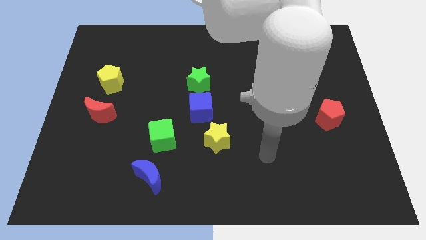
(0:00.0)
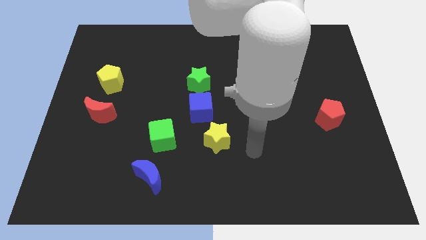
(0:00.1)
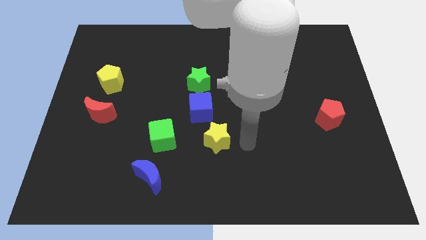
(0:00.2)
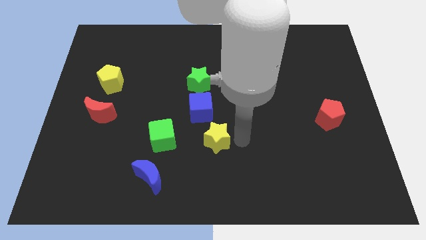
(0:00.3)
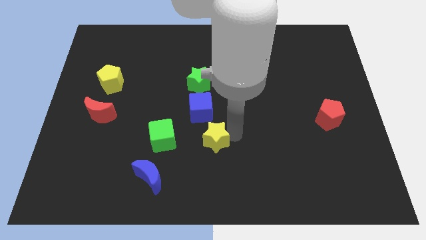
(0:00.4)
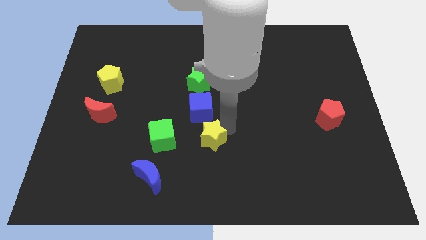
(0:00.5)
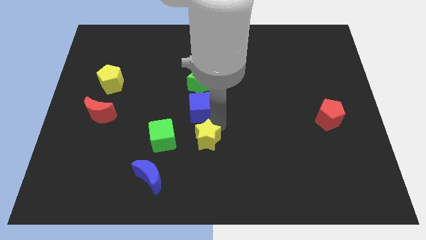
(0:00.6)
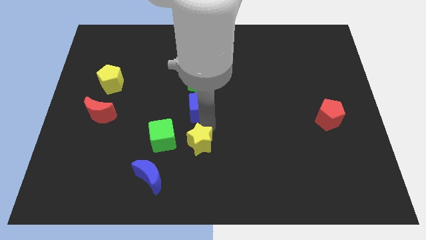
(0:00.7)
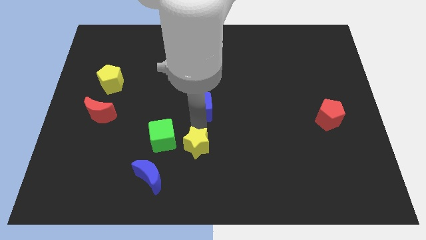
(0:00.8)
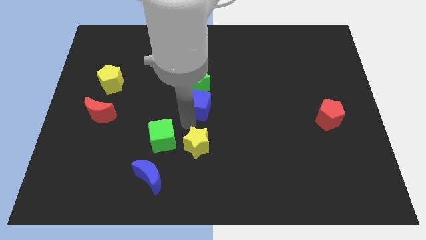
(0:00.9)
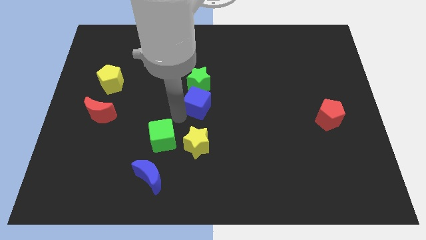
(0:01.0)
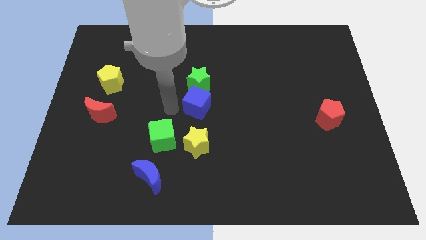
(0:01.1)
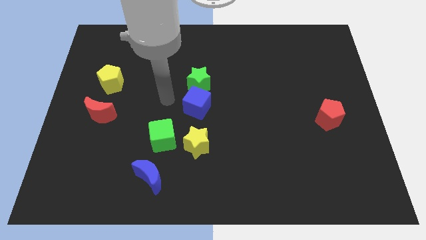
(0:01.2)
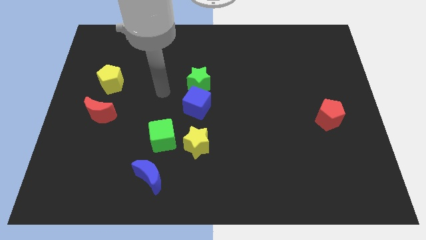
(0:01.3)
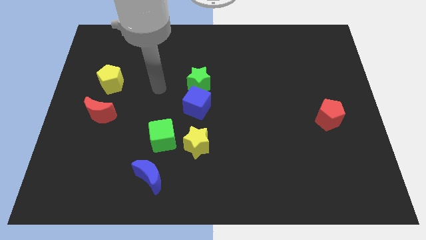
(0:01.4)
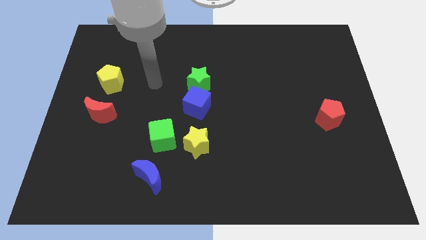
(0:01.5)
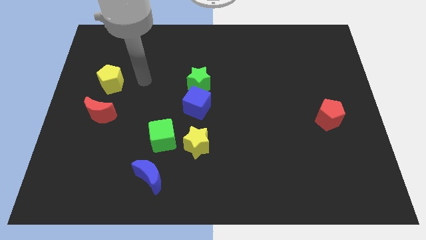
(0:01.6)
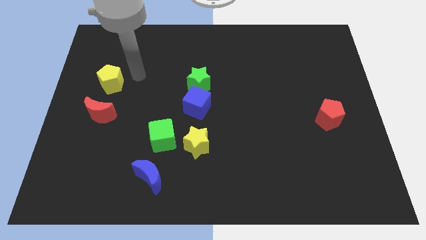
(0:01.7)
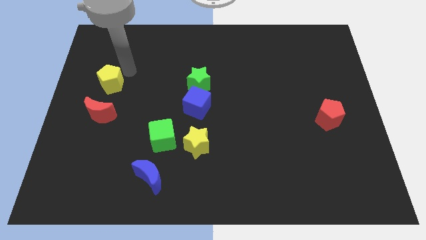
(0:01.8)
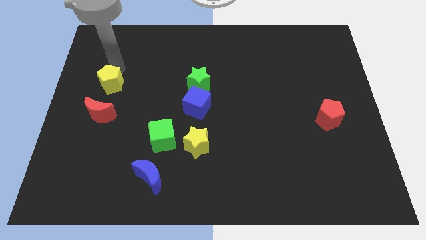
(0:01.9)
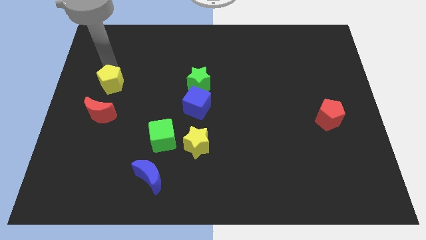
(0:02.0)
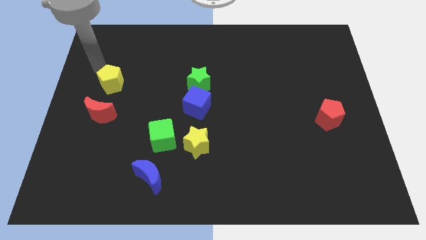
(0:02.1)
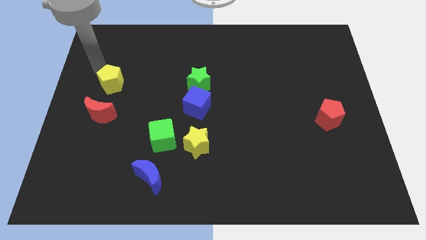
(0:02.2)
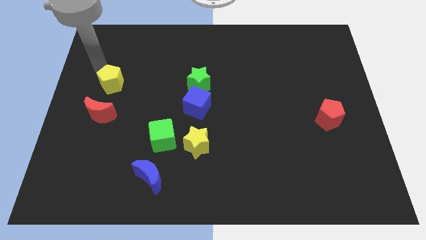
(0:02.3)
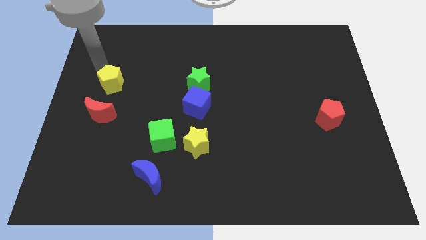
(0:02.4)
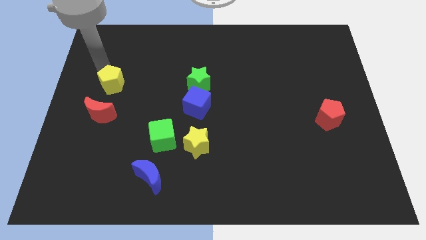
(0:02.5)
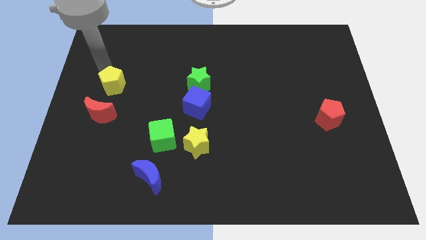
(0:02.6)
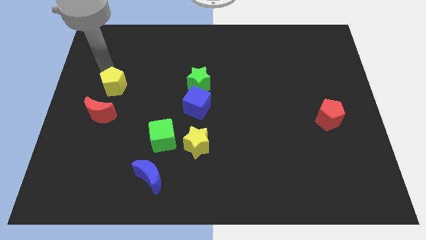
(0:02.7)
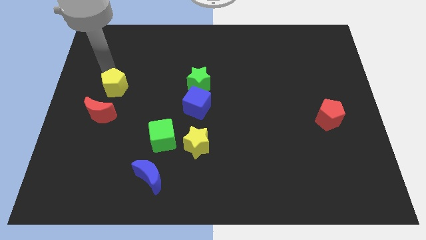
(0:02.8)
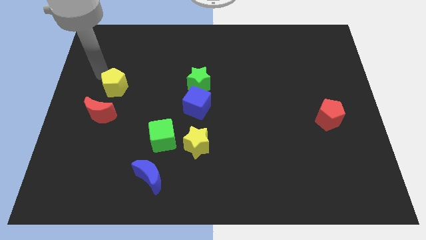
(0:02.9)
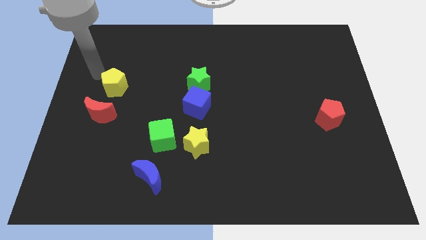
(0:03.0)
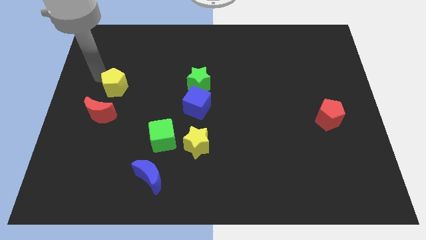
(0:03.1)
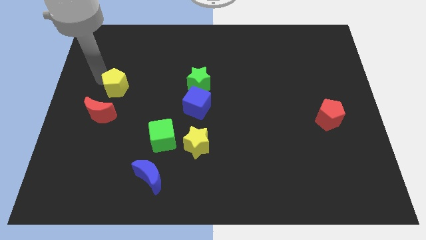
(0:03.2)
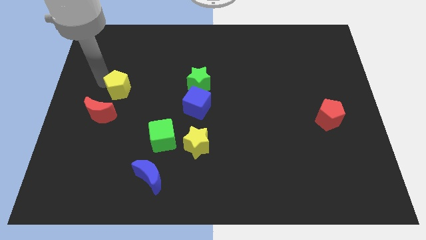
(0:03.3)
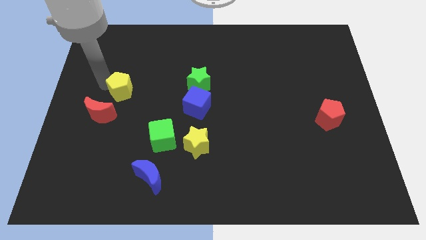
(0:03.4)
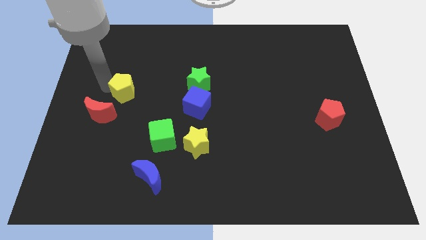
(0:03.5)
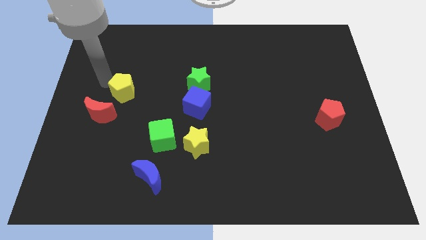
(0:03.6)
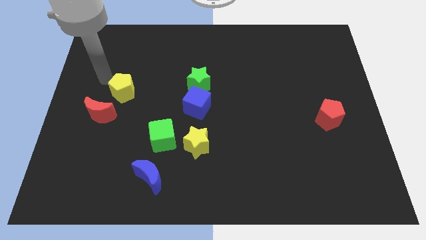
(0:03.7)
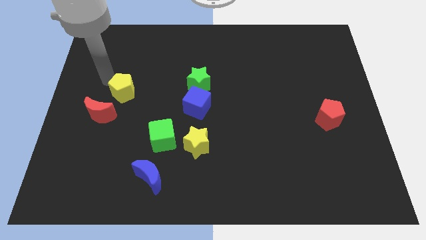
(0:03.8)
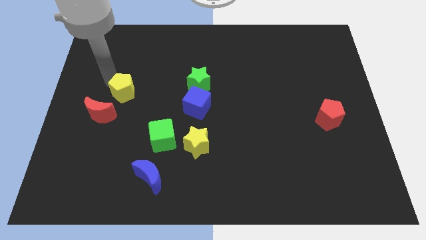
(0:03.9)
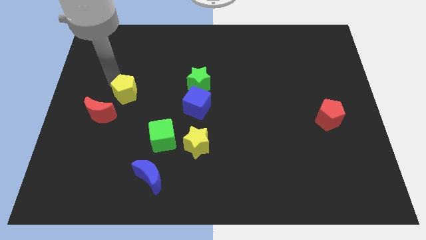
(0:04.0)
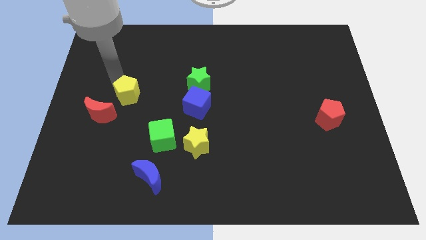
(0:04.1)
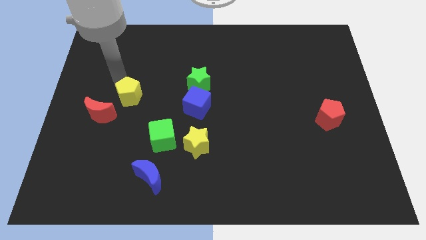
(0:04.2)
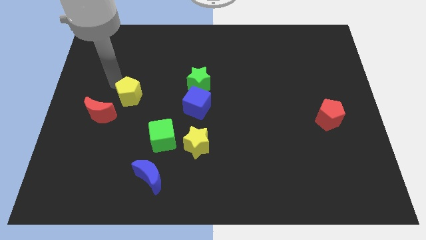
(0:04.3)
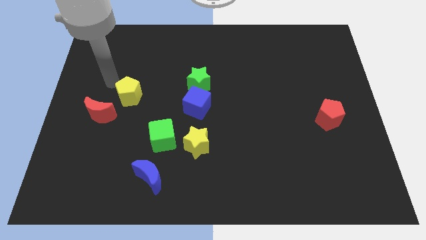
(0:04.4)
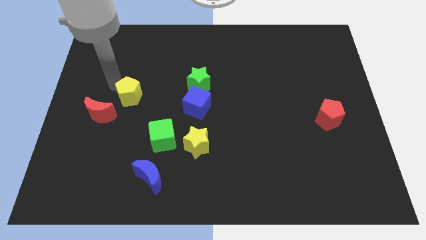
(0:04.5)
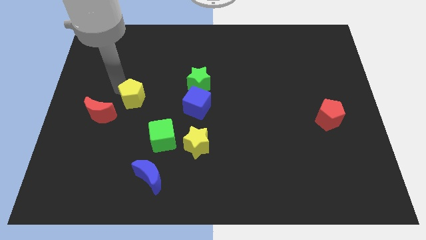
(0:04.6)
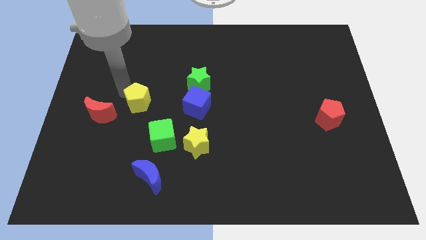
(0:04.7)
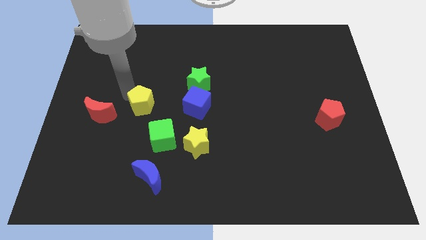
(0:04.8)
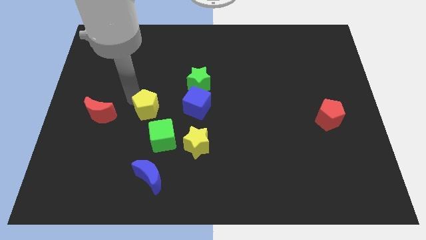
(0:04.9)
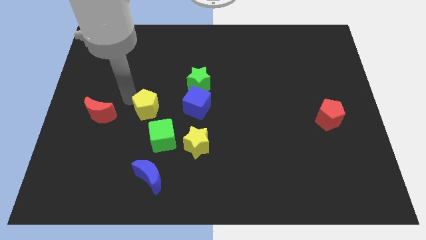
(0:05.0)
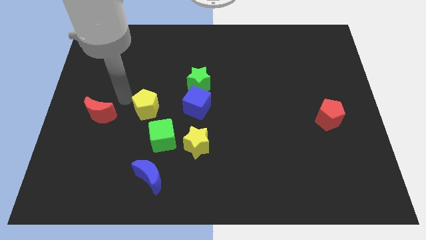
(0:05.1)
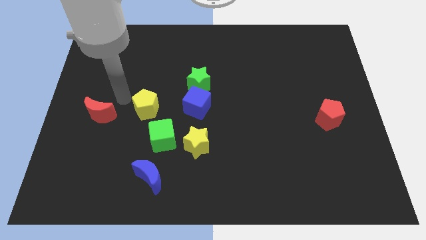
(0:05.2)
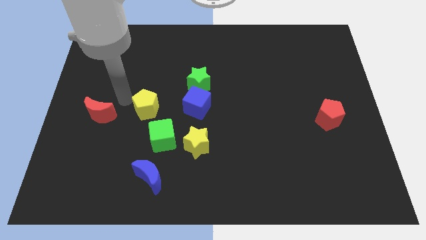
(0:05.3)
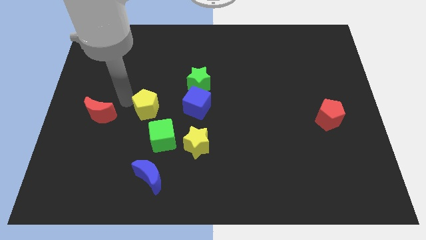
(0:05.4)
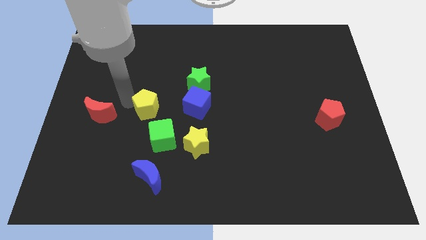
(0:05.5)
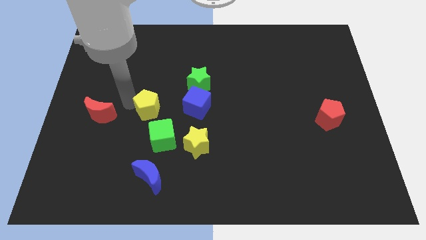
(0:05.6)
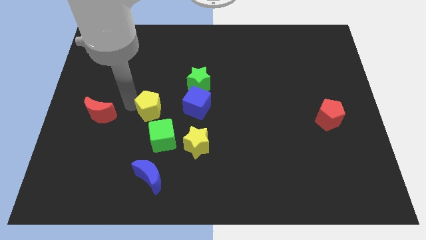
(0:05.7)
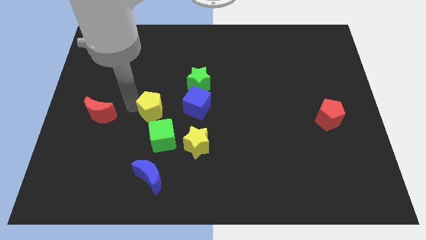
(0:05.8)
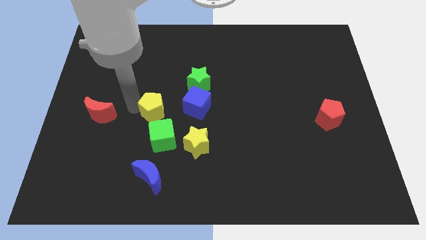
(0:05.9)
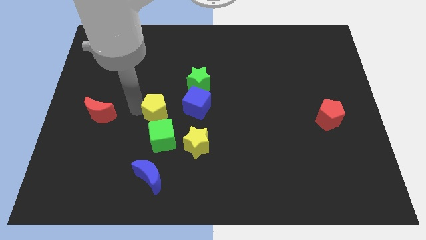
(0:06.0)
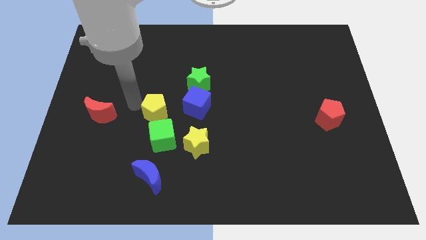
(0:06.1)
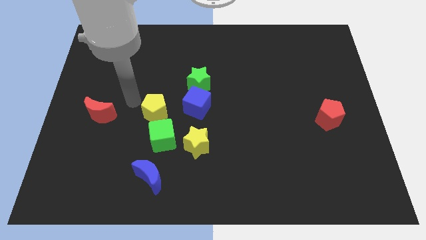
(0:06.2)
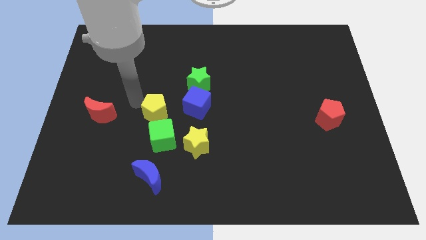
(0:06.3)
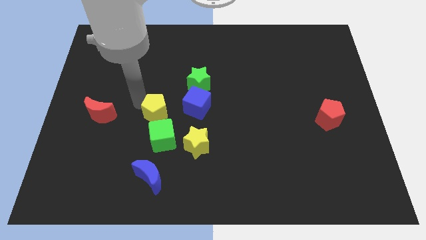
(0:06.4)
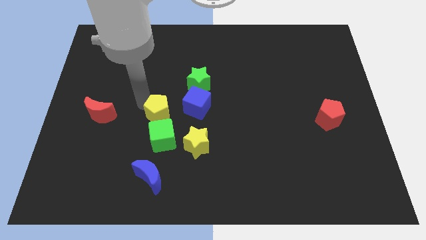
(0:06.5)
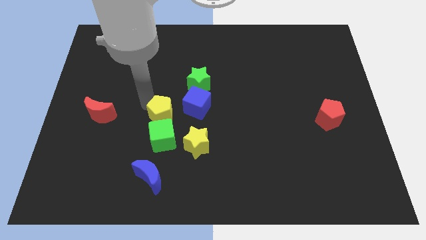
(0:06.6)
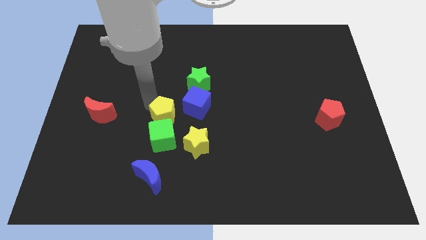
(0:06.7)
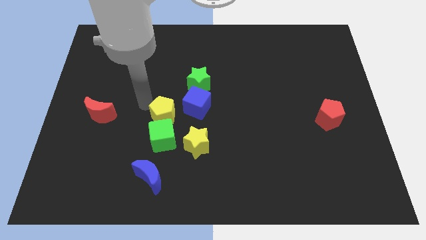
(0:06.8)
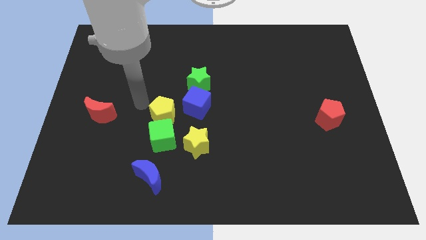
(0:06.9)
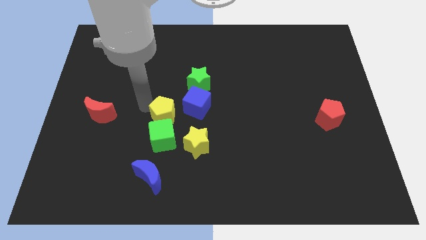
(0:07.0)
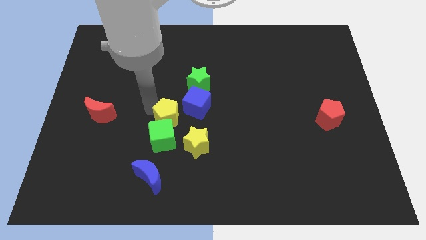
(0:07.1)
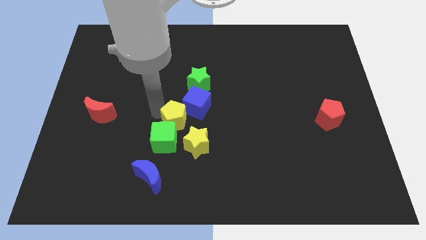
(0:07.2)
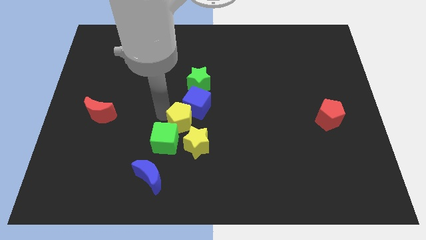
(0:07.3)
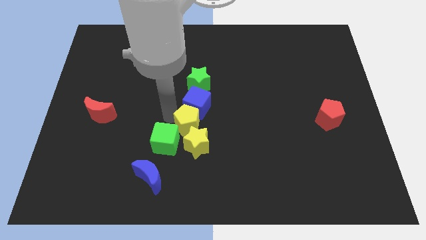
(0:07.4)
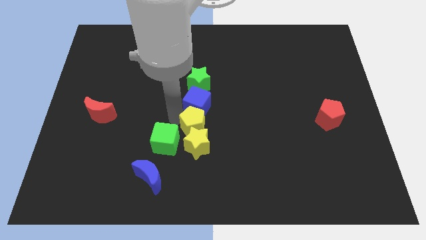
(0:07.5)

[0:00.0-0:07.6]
move the yellow pentagon towards the yellow star
